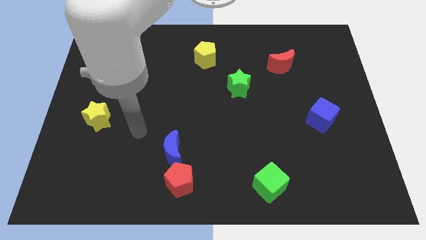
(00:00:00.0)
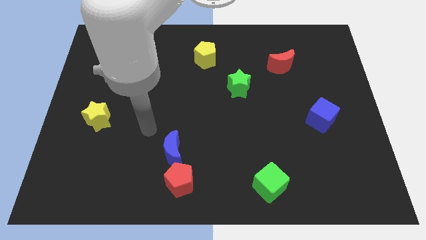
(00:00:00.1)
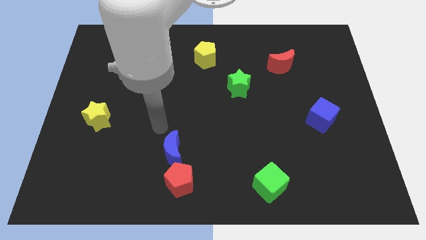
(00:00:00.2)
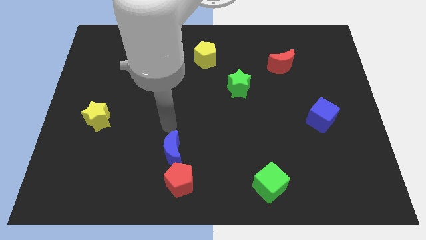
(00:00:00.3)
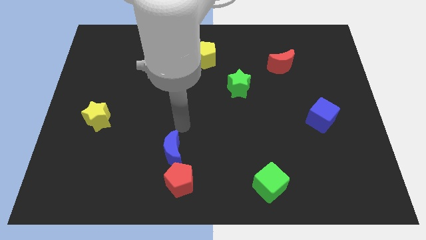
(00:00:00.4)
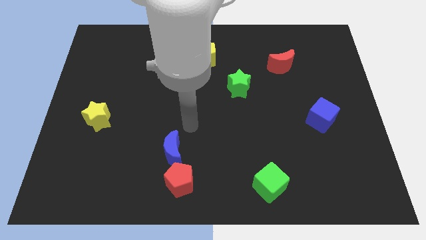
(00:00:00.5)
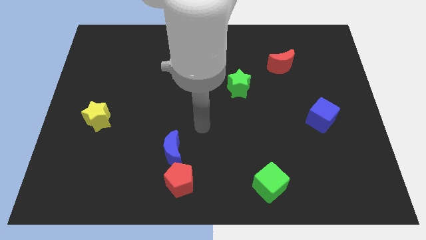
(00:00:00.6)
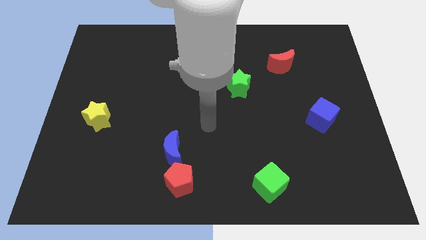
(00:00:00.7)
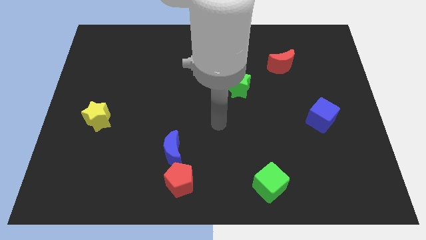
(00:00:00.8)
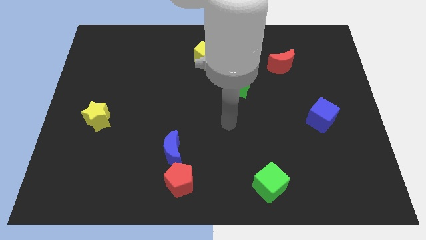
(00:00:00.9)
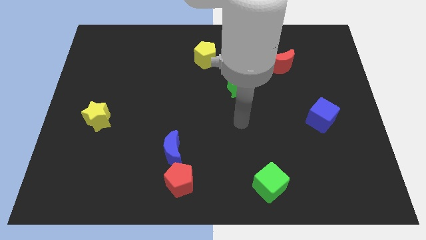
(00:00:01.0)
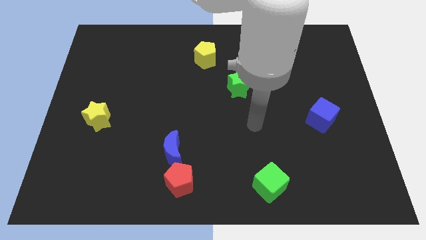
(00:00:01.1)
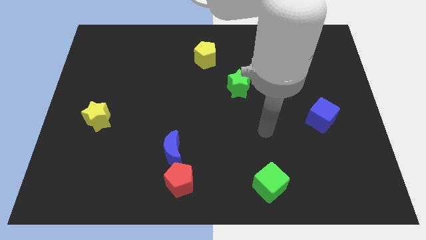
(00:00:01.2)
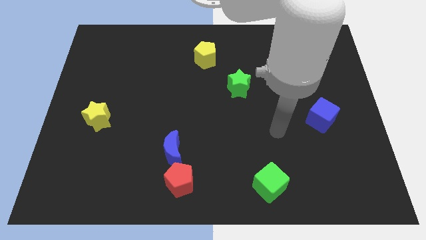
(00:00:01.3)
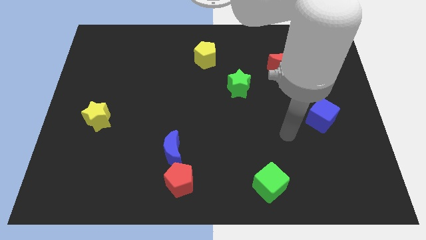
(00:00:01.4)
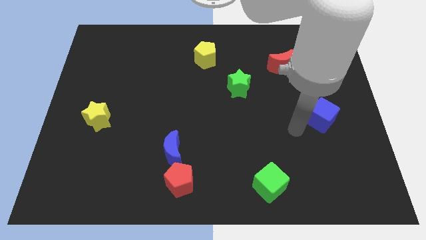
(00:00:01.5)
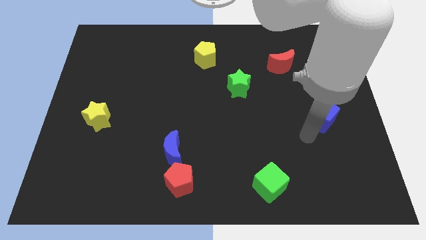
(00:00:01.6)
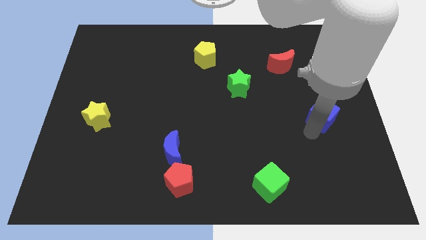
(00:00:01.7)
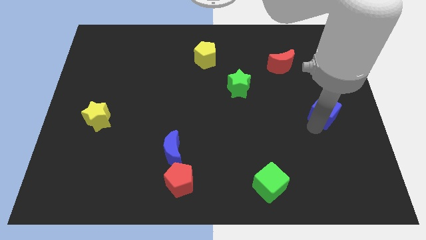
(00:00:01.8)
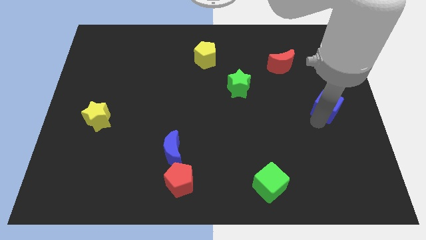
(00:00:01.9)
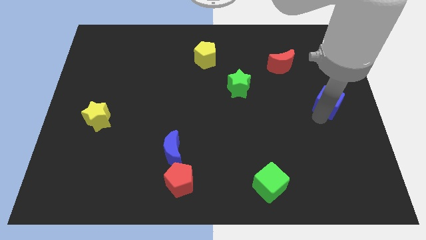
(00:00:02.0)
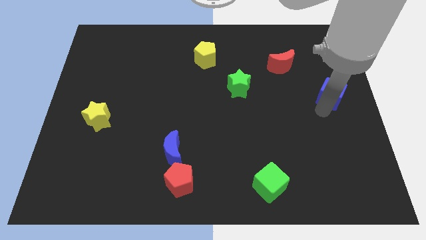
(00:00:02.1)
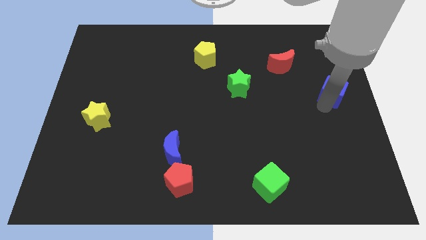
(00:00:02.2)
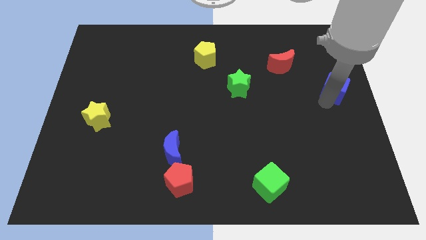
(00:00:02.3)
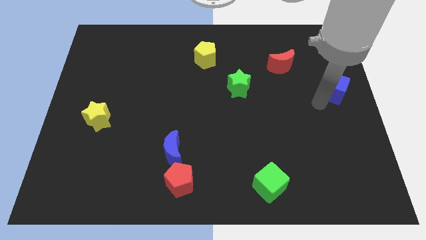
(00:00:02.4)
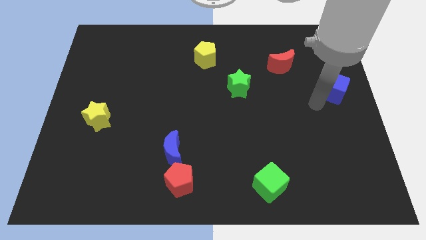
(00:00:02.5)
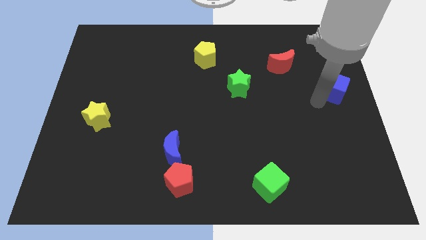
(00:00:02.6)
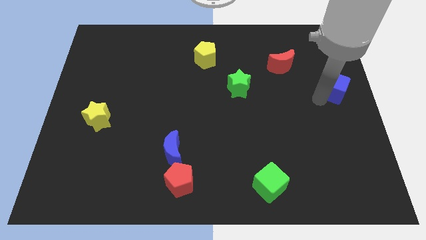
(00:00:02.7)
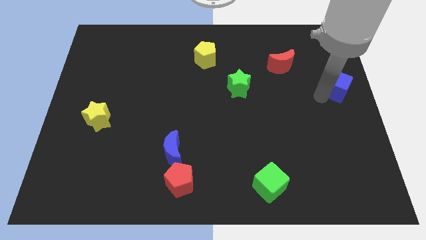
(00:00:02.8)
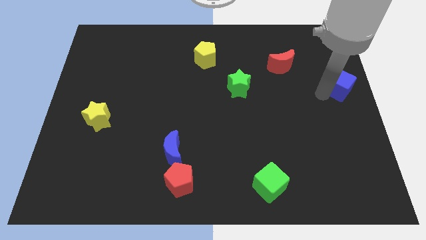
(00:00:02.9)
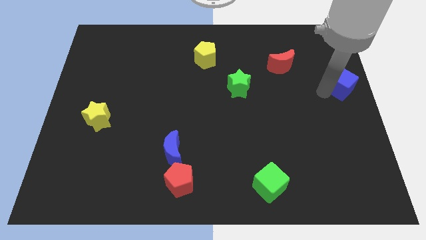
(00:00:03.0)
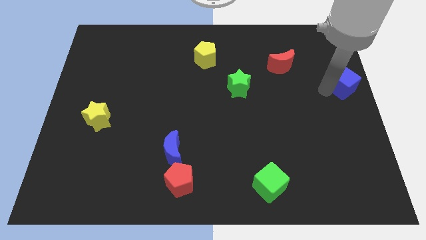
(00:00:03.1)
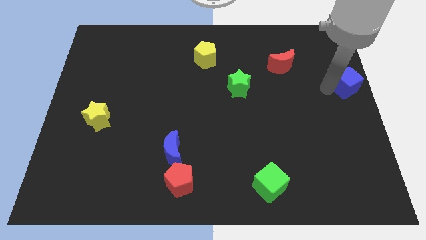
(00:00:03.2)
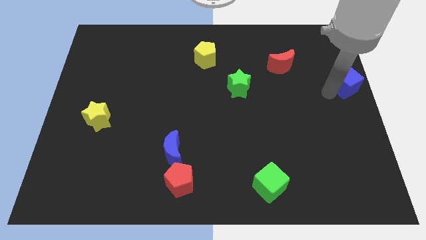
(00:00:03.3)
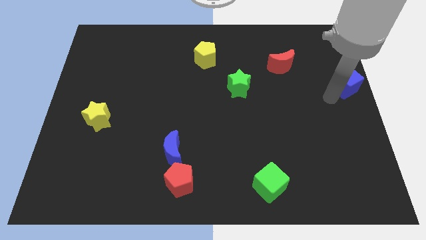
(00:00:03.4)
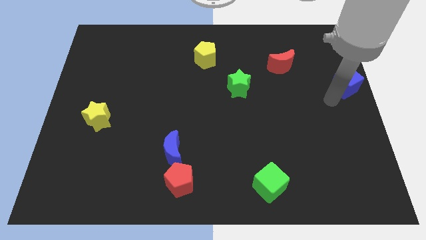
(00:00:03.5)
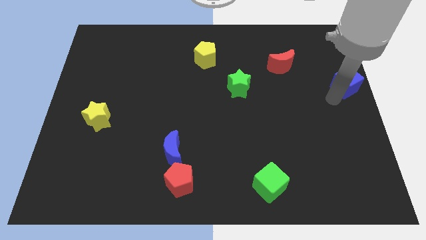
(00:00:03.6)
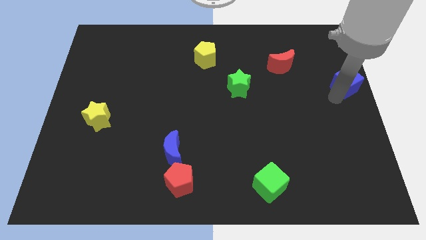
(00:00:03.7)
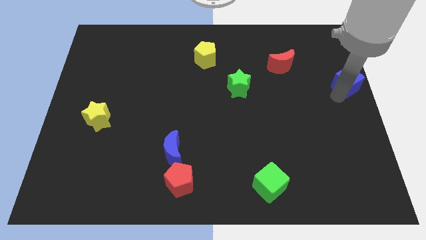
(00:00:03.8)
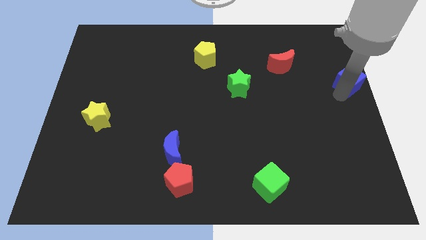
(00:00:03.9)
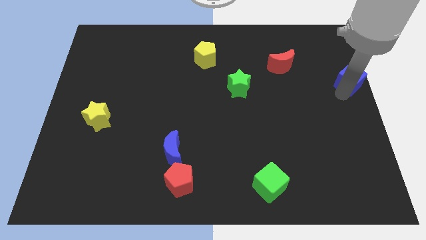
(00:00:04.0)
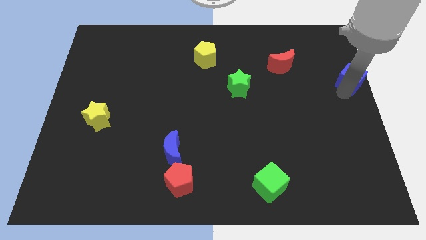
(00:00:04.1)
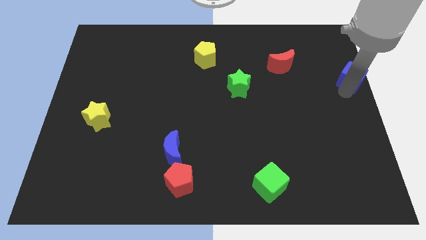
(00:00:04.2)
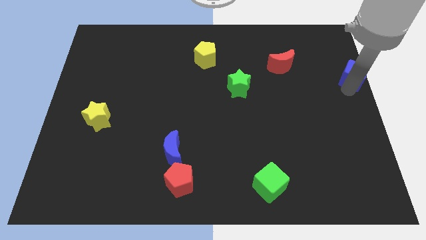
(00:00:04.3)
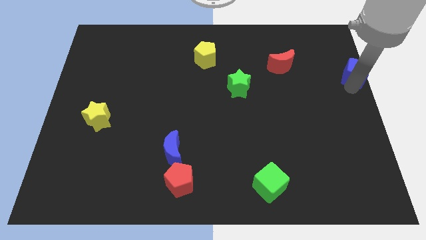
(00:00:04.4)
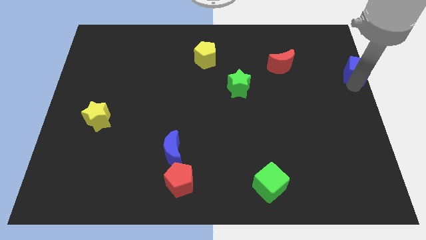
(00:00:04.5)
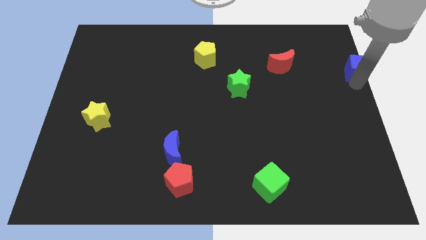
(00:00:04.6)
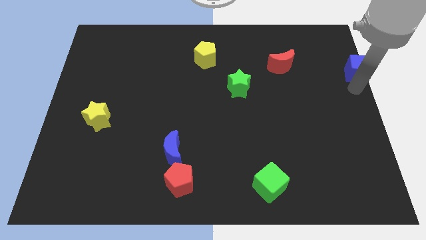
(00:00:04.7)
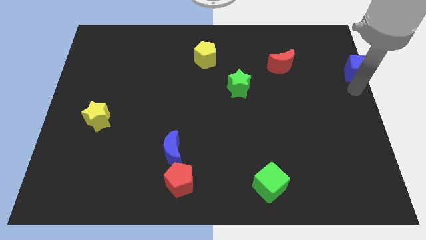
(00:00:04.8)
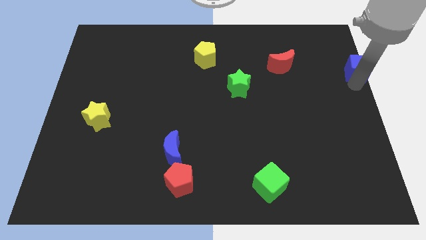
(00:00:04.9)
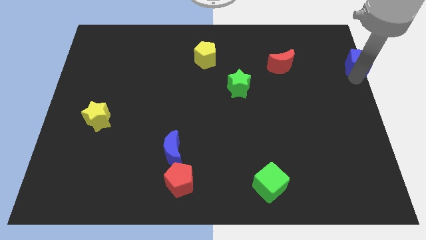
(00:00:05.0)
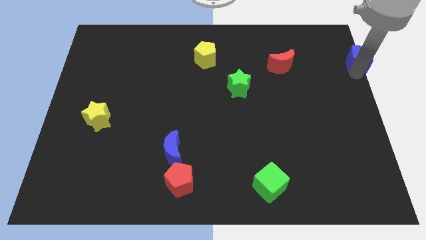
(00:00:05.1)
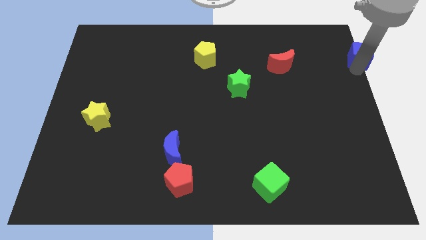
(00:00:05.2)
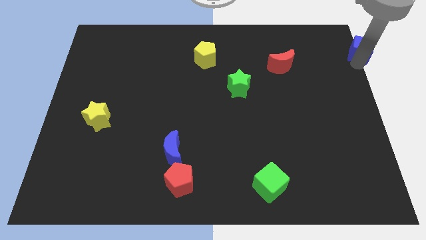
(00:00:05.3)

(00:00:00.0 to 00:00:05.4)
put the blue cube to the top right of the board

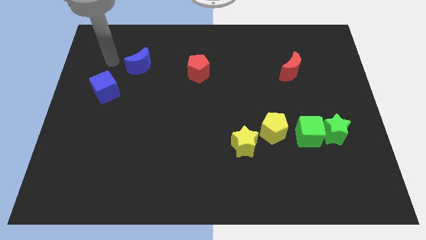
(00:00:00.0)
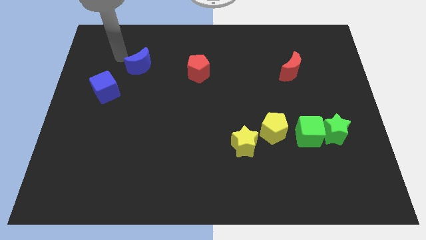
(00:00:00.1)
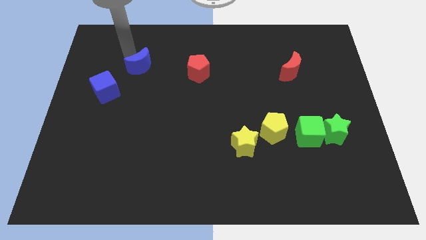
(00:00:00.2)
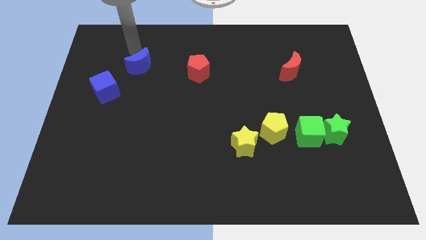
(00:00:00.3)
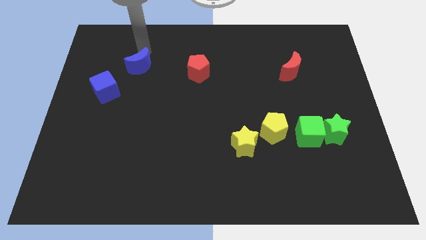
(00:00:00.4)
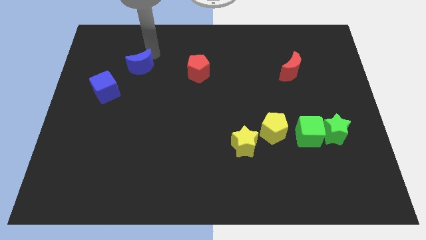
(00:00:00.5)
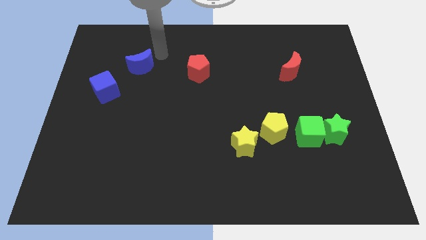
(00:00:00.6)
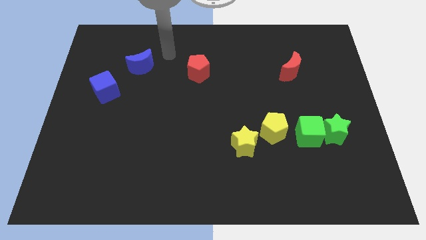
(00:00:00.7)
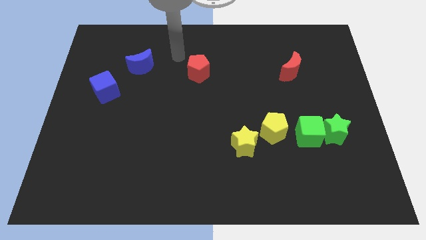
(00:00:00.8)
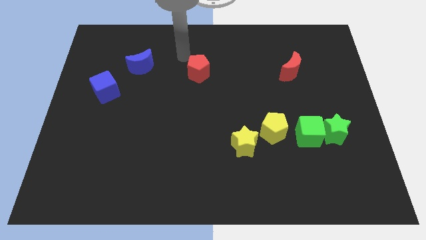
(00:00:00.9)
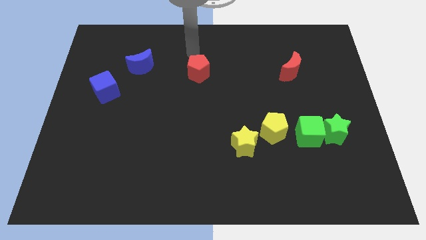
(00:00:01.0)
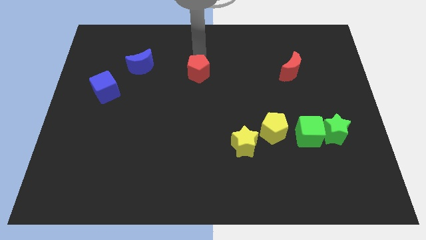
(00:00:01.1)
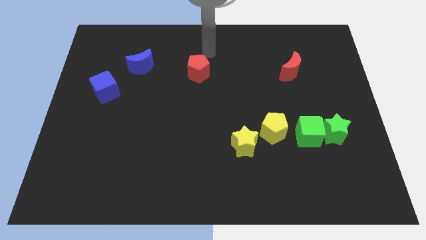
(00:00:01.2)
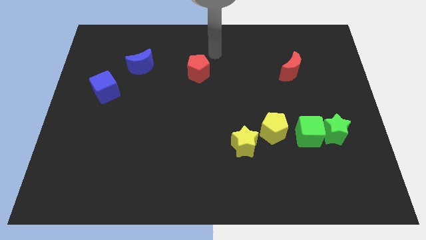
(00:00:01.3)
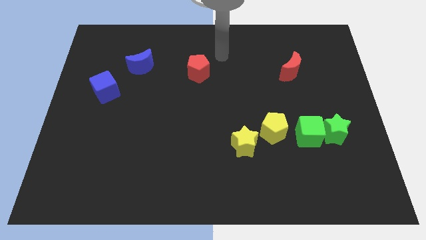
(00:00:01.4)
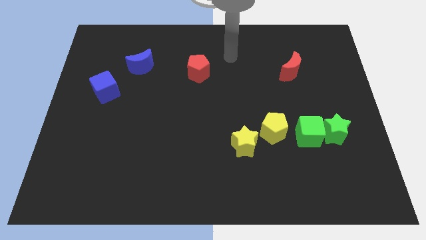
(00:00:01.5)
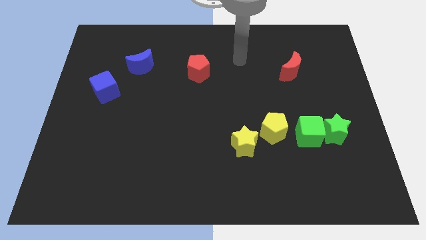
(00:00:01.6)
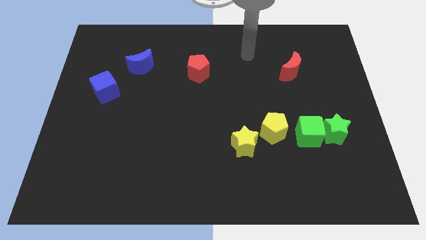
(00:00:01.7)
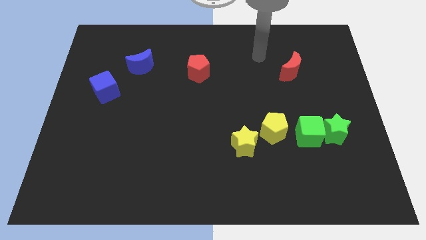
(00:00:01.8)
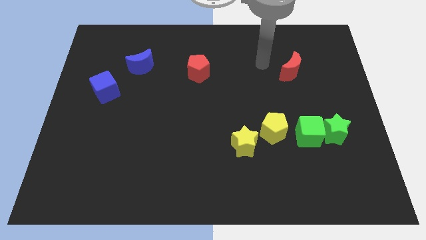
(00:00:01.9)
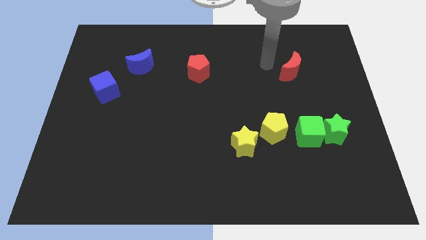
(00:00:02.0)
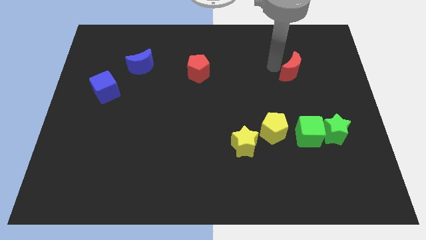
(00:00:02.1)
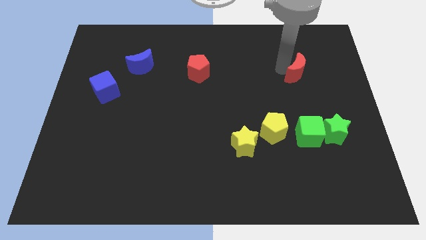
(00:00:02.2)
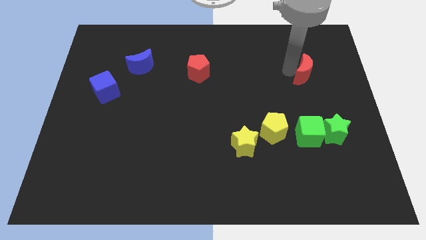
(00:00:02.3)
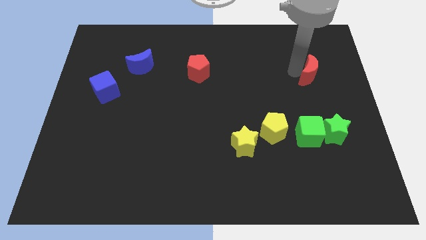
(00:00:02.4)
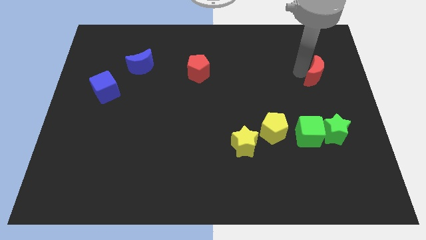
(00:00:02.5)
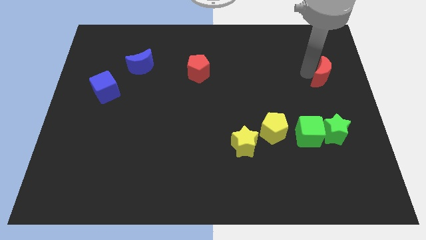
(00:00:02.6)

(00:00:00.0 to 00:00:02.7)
push the red moon to the center right
